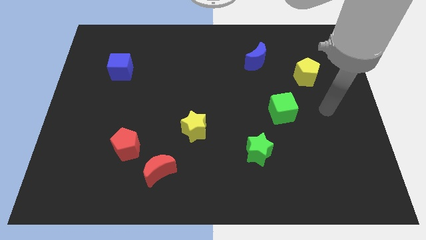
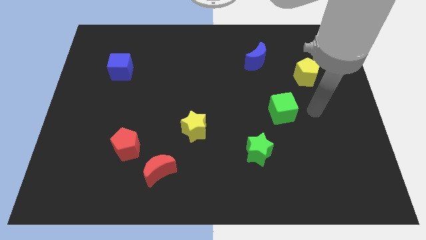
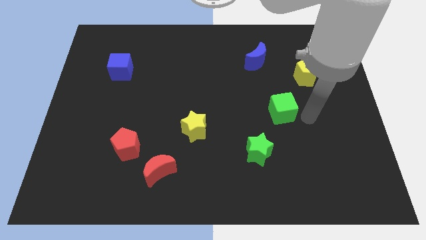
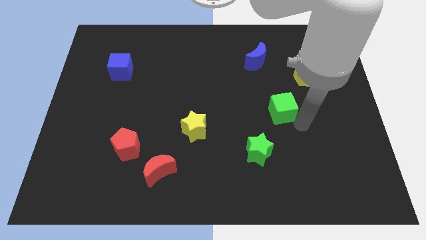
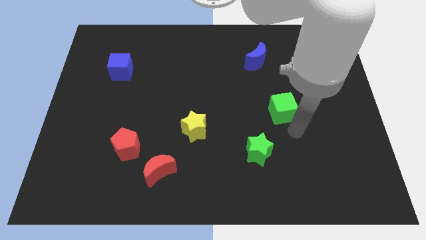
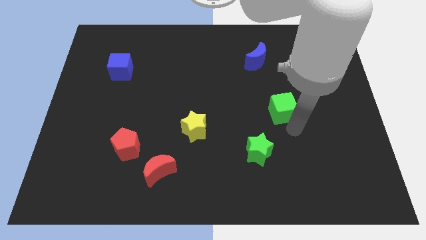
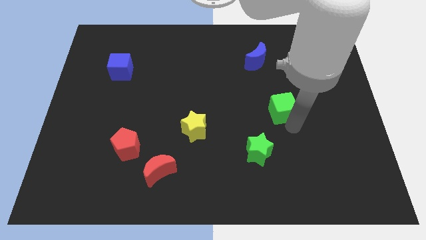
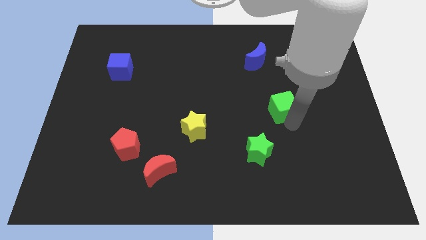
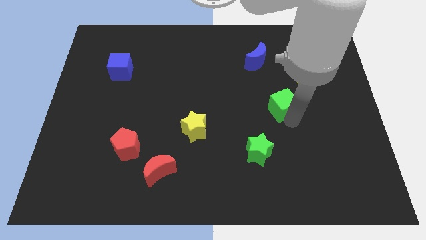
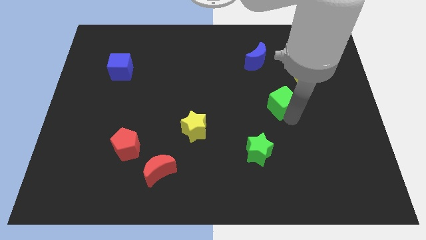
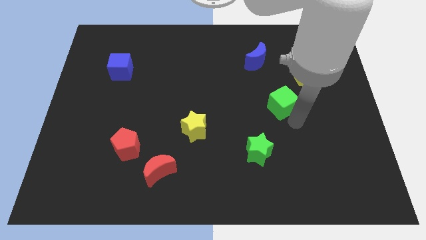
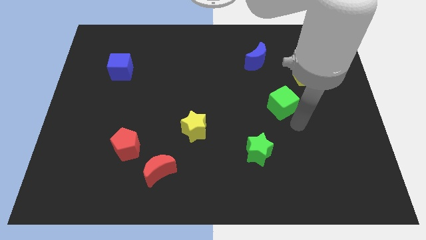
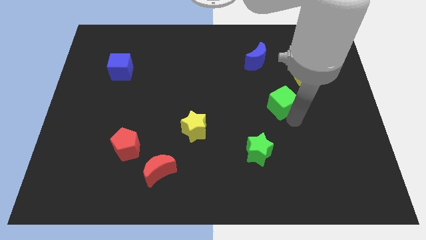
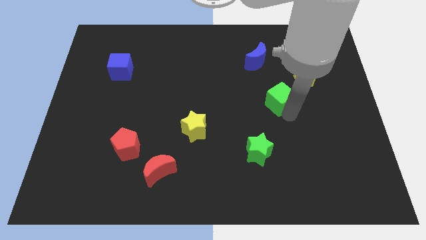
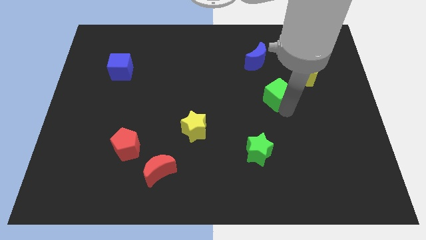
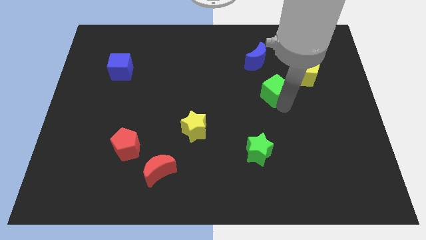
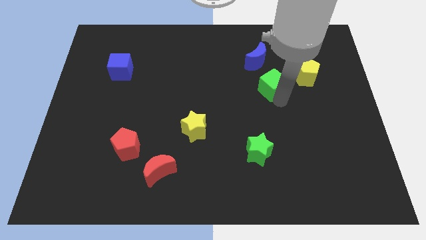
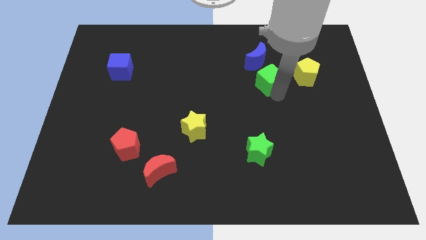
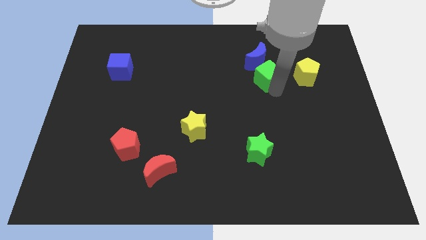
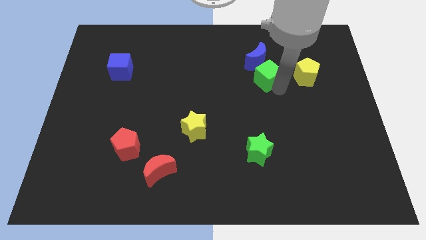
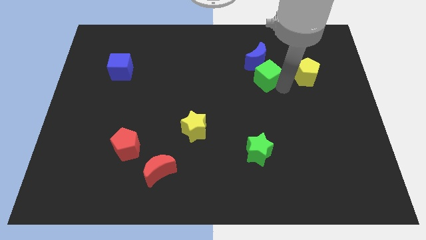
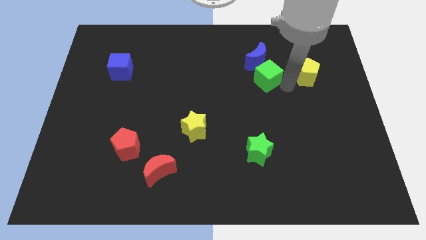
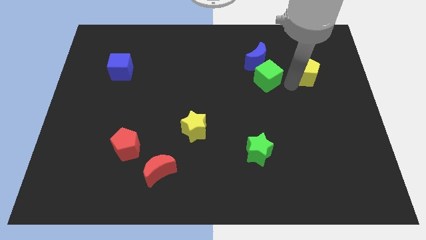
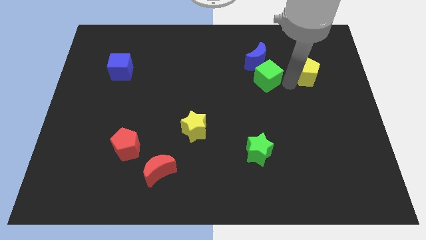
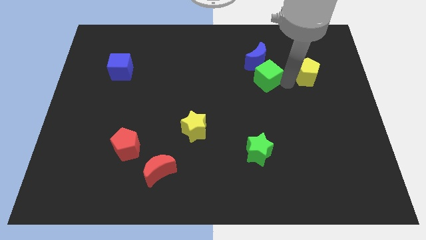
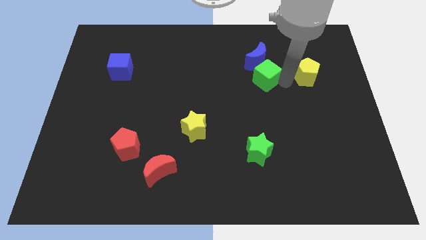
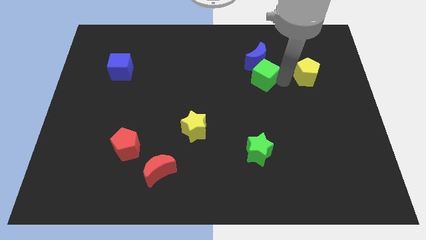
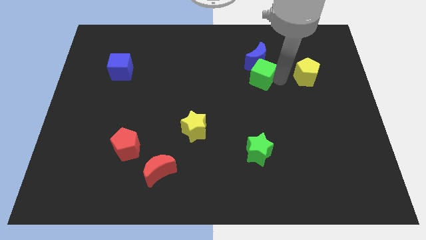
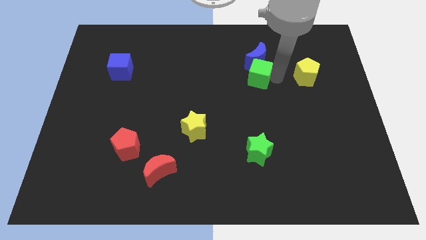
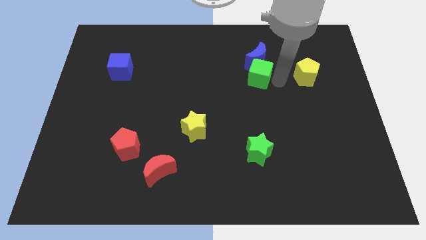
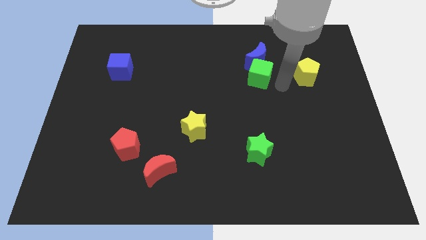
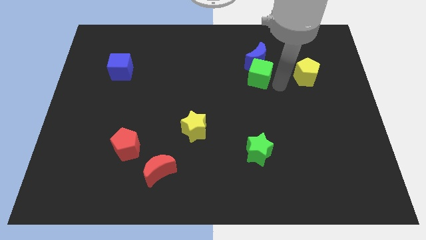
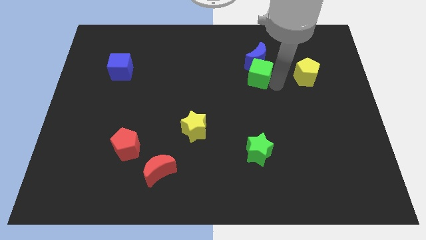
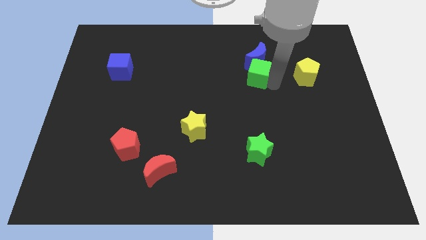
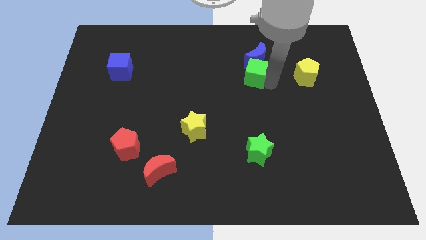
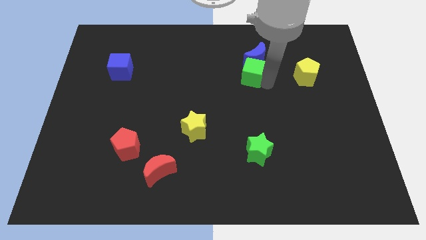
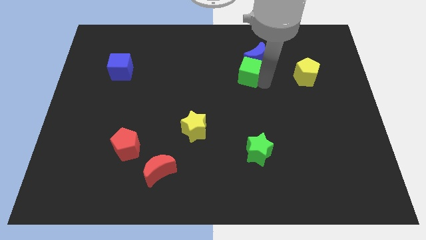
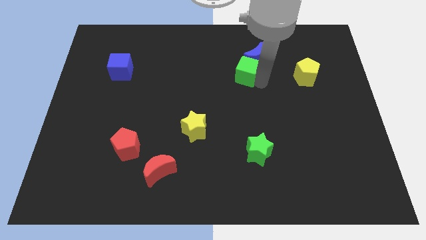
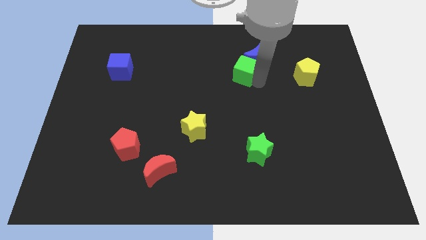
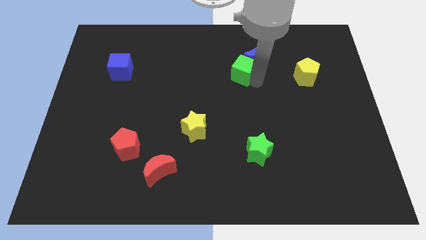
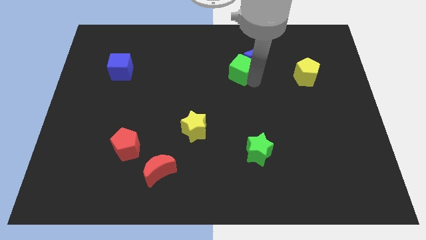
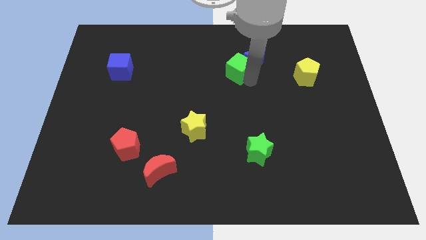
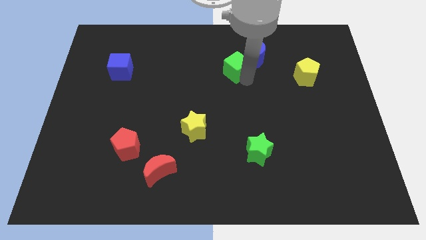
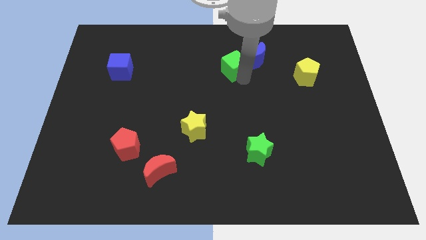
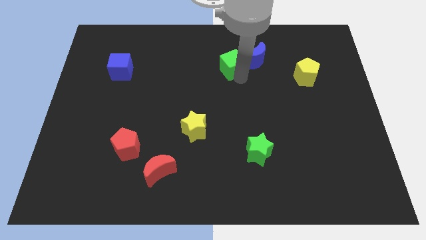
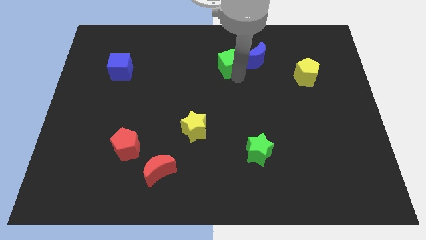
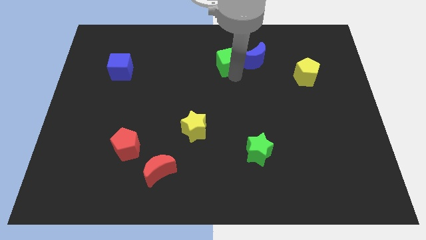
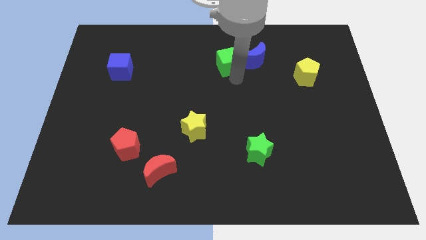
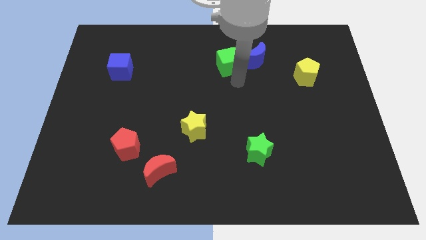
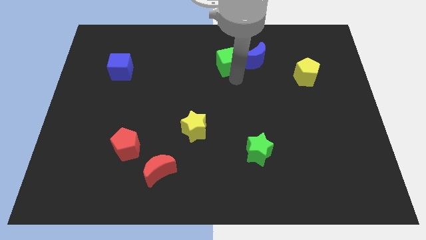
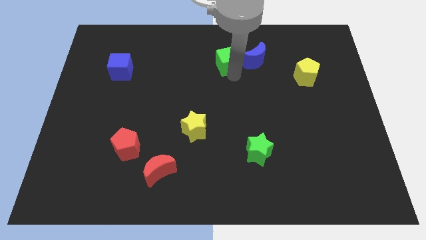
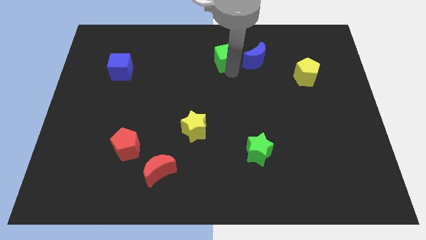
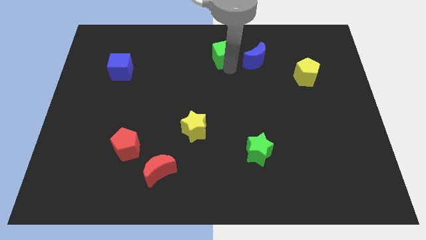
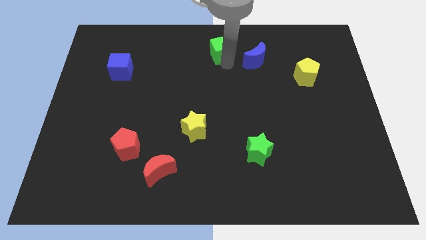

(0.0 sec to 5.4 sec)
put the green cube to the top side

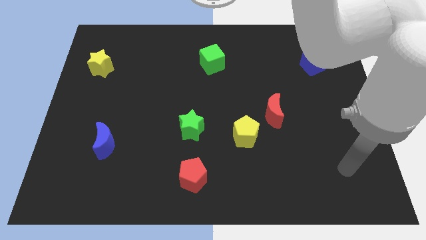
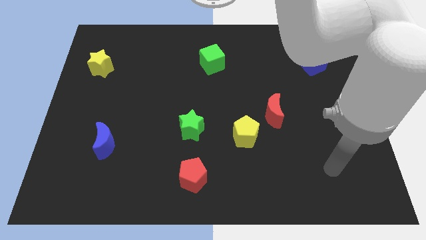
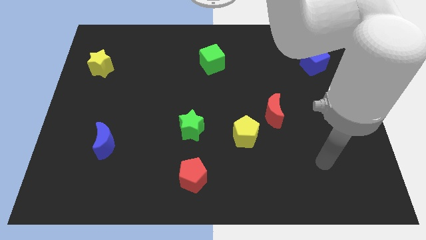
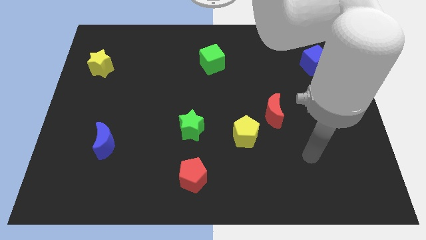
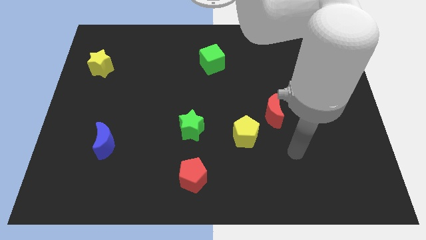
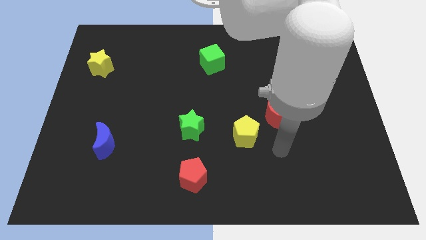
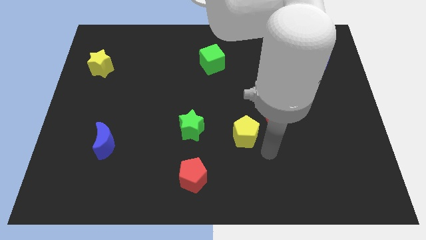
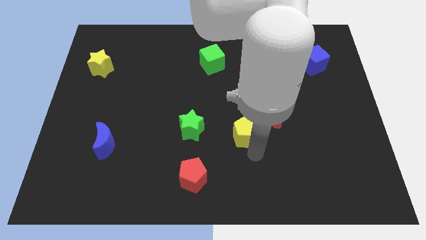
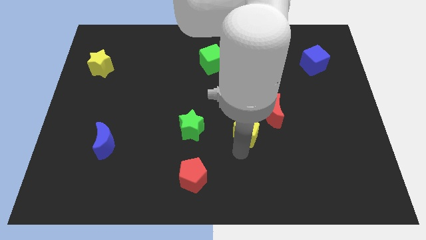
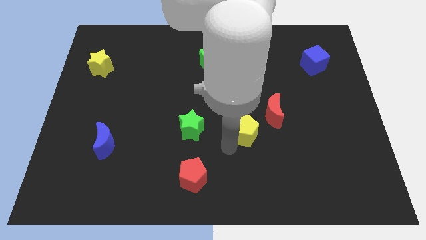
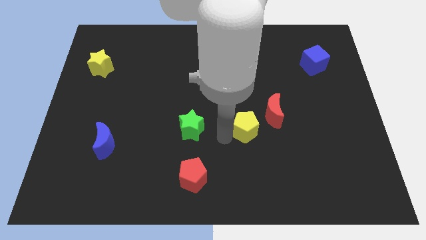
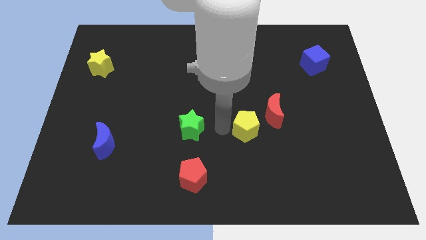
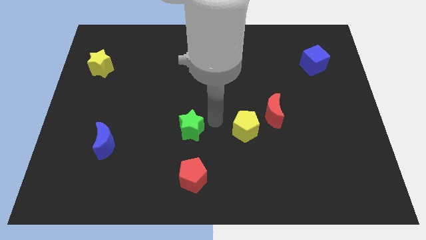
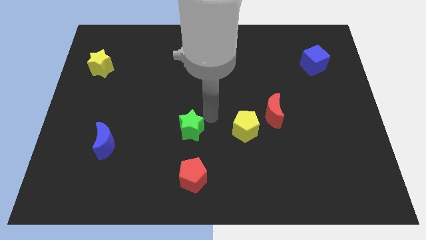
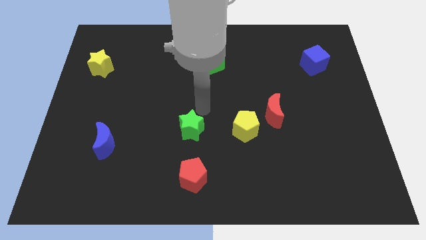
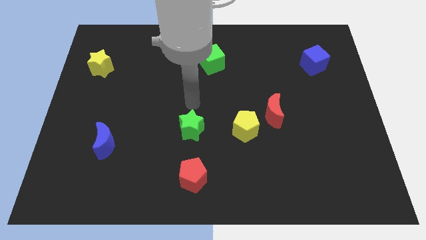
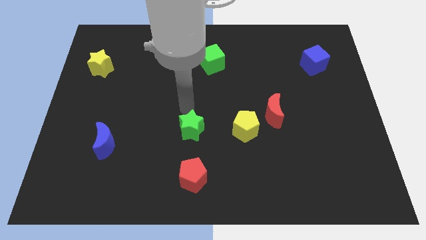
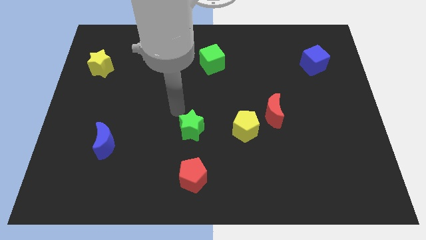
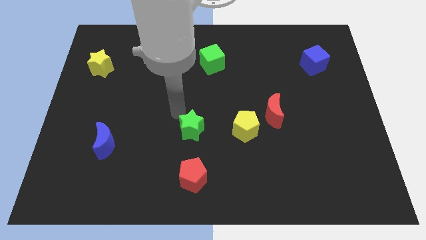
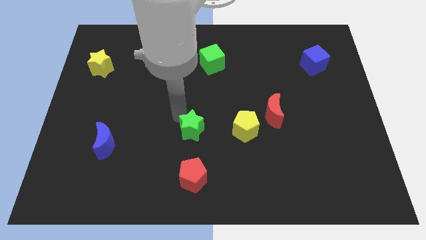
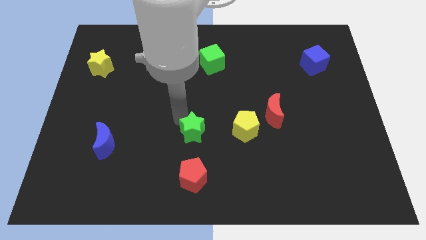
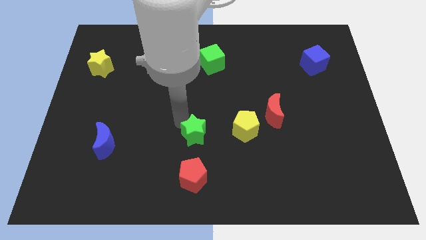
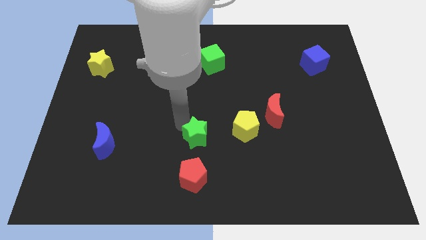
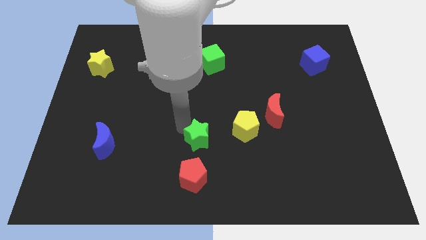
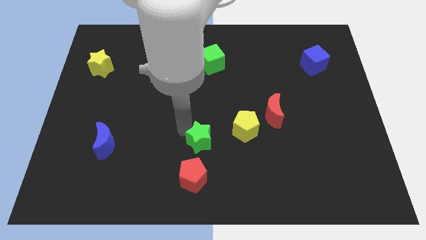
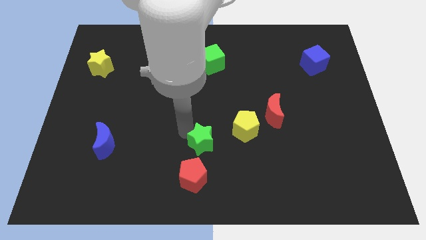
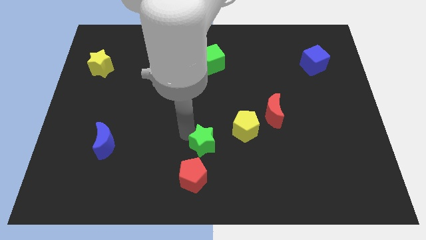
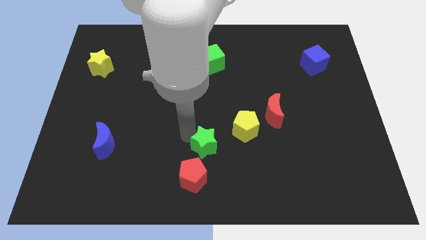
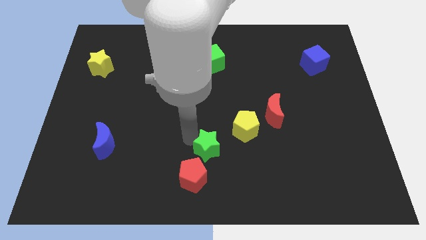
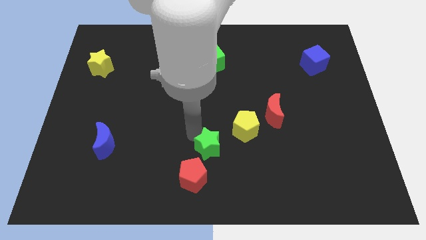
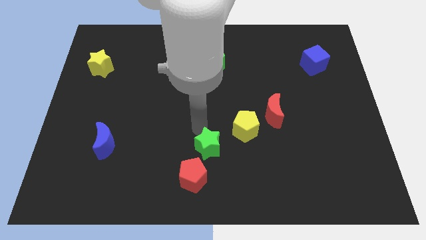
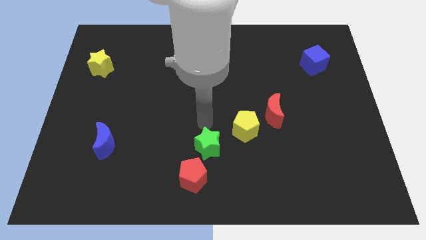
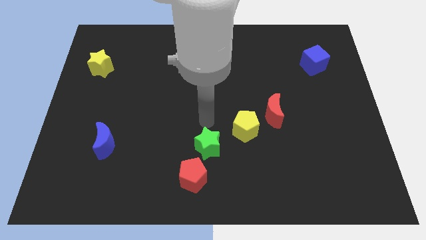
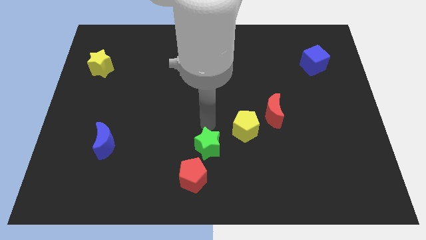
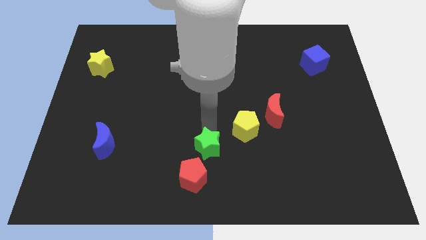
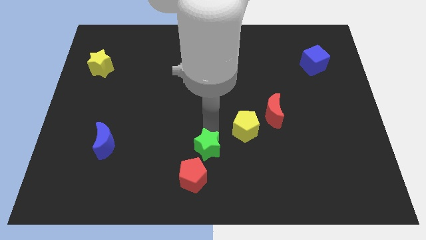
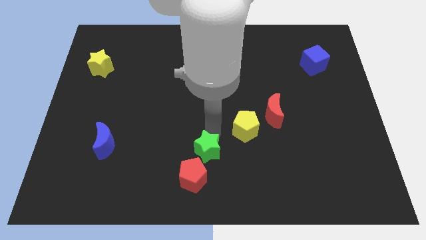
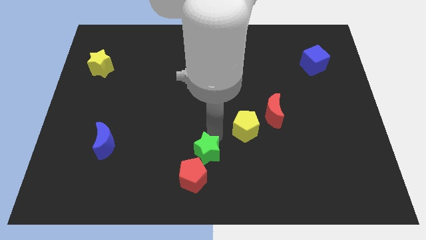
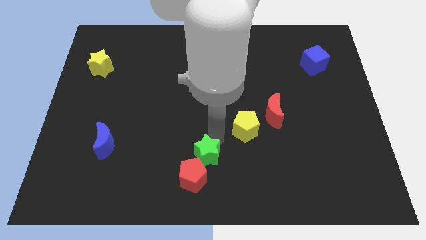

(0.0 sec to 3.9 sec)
put the green star to the bottom side
